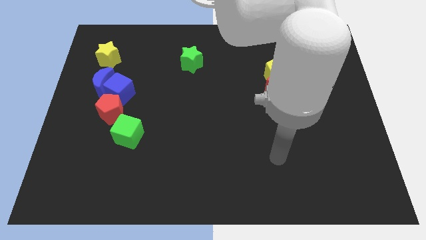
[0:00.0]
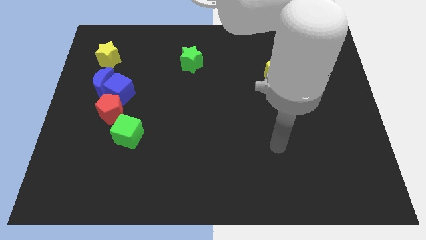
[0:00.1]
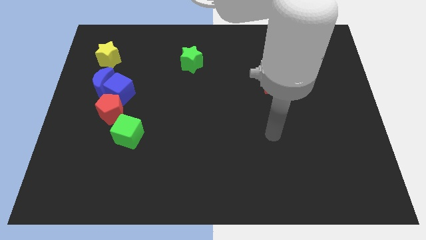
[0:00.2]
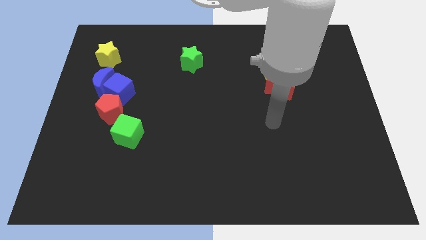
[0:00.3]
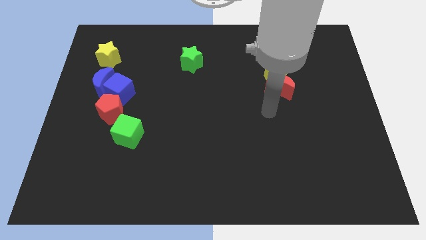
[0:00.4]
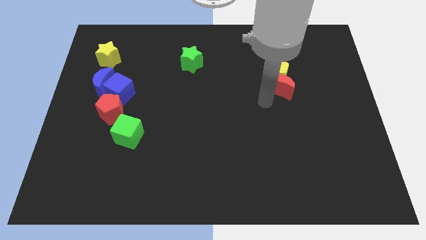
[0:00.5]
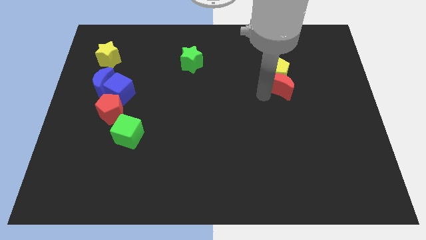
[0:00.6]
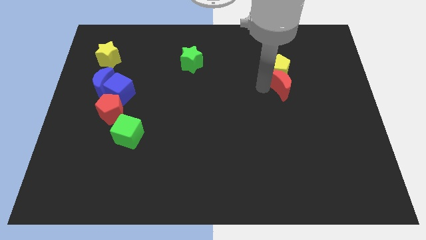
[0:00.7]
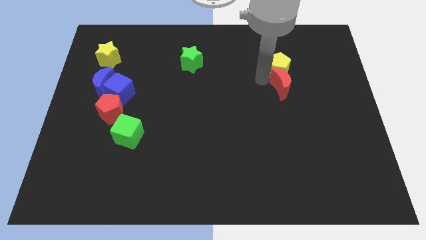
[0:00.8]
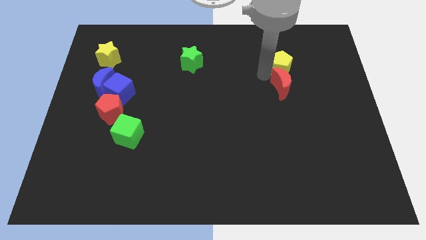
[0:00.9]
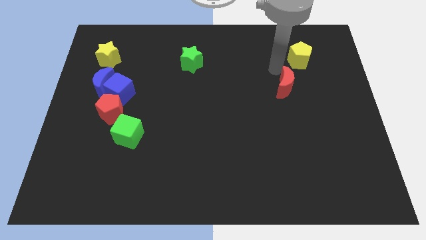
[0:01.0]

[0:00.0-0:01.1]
move the red moon away from the yellow pentagon

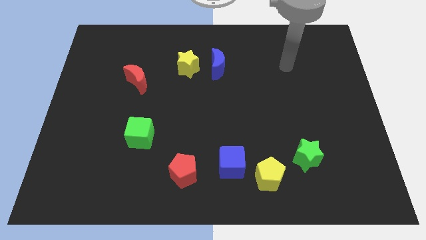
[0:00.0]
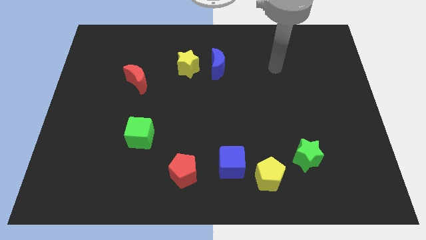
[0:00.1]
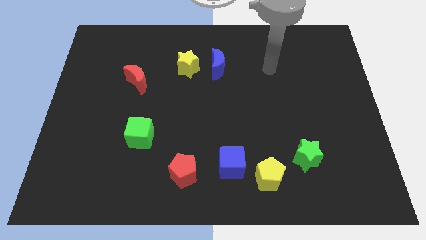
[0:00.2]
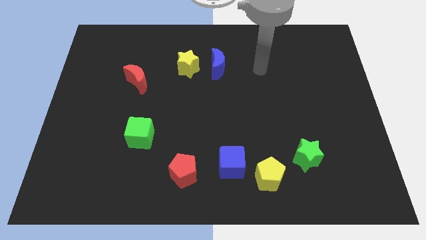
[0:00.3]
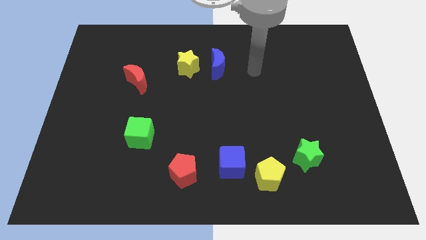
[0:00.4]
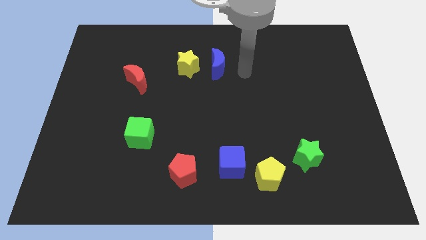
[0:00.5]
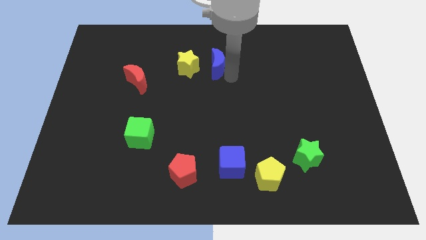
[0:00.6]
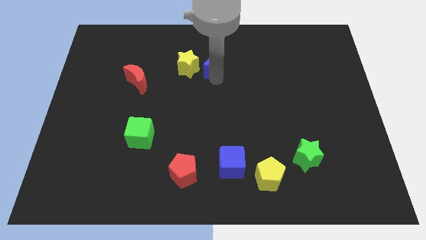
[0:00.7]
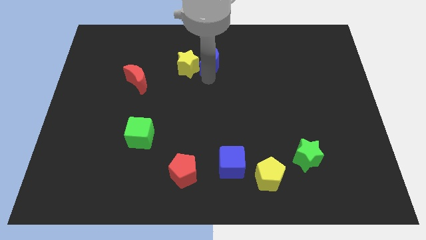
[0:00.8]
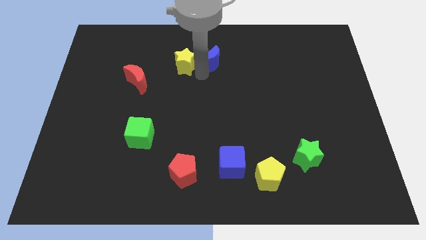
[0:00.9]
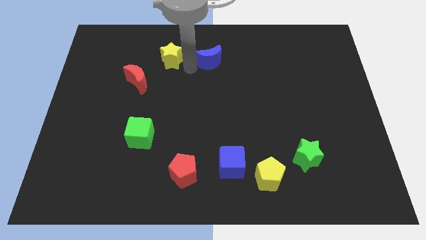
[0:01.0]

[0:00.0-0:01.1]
pull the blue moon apart from the yellow star

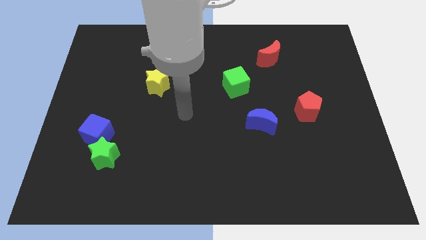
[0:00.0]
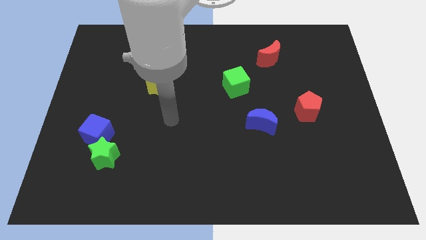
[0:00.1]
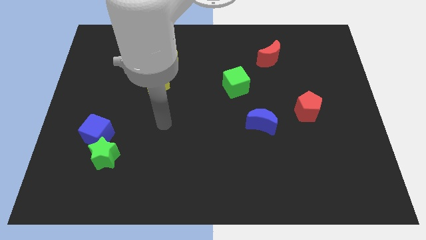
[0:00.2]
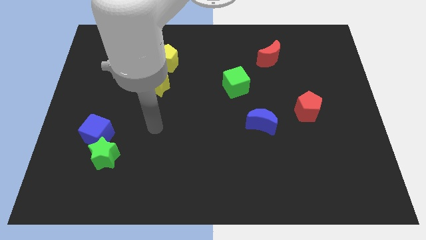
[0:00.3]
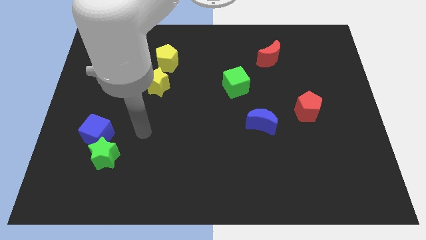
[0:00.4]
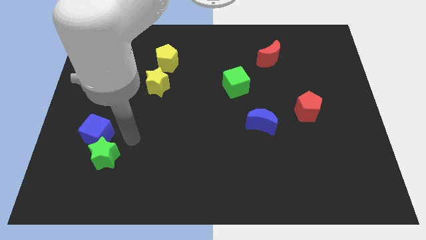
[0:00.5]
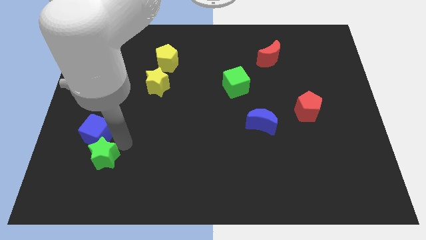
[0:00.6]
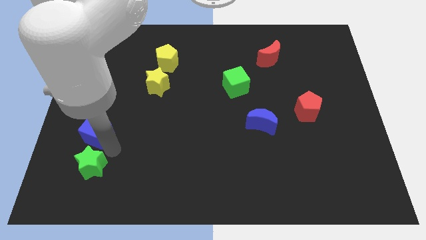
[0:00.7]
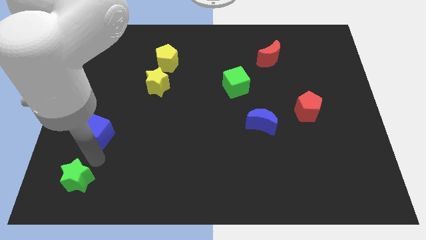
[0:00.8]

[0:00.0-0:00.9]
move the blue cube away from the green star

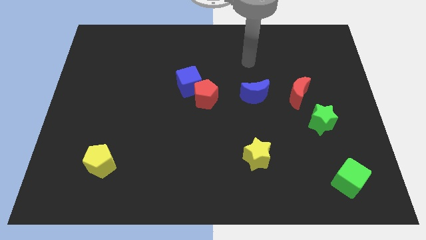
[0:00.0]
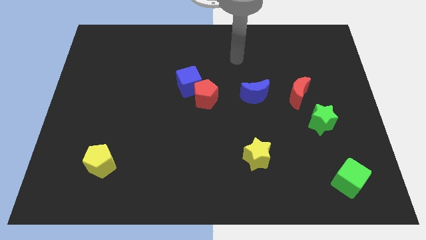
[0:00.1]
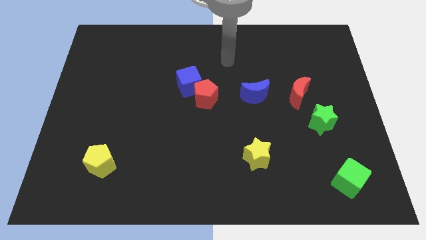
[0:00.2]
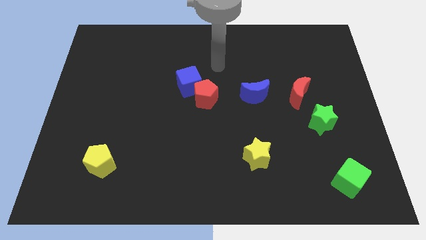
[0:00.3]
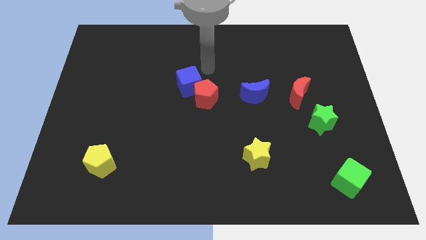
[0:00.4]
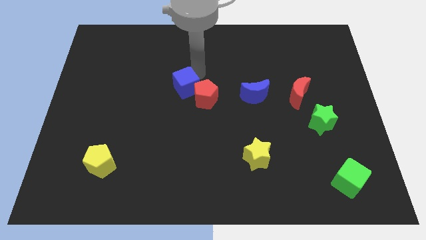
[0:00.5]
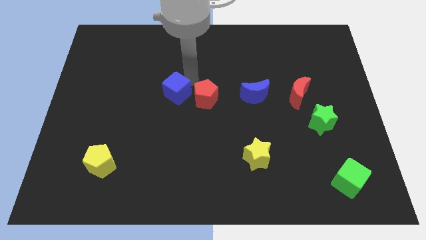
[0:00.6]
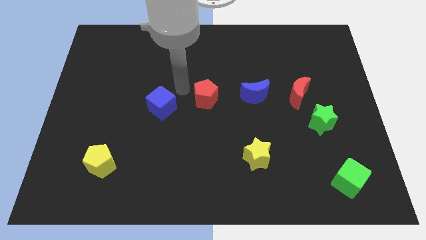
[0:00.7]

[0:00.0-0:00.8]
pull the red pentagon apart from the blue cube

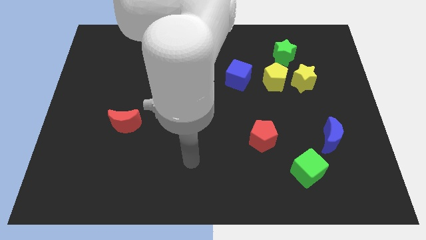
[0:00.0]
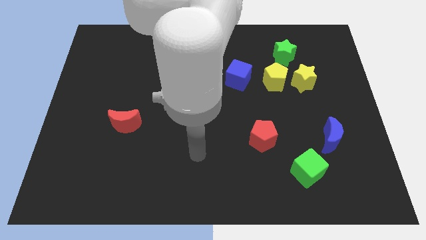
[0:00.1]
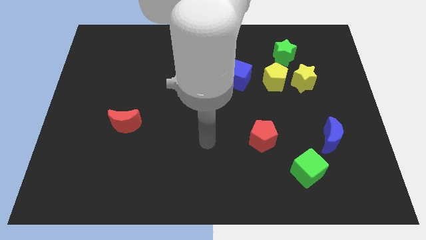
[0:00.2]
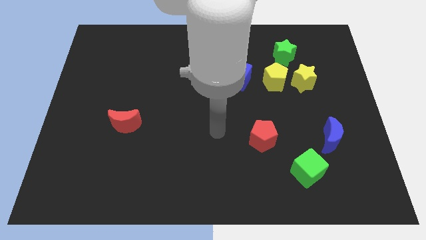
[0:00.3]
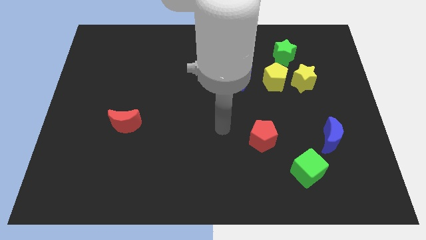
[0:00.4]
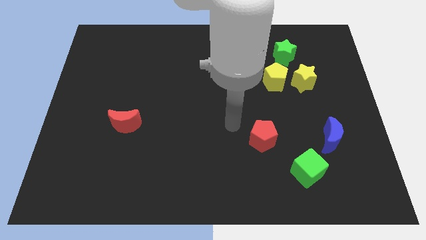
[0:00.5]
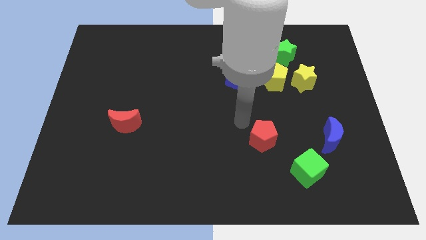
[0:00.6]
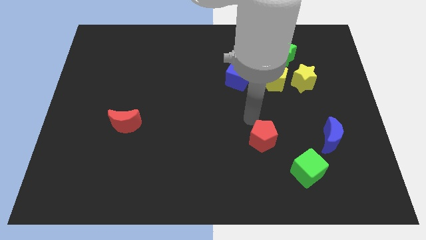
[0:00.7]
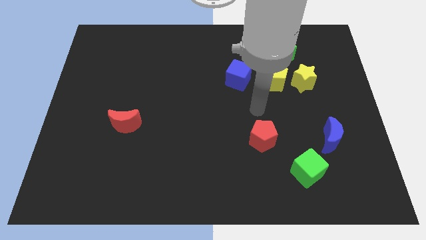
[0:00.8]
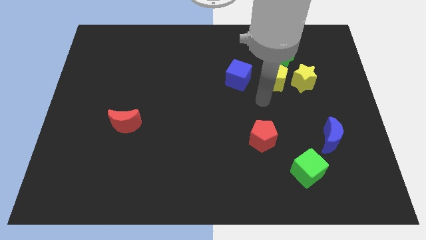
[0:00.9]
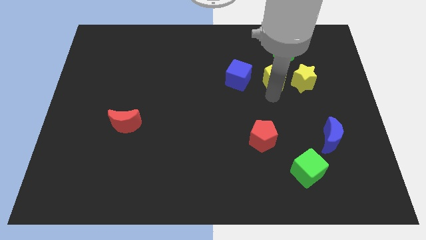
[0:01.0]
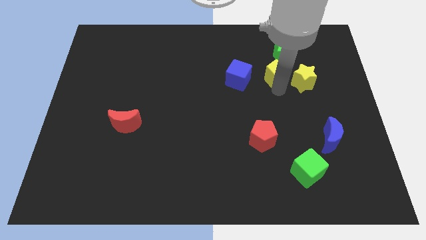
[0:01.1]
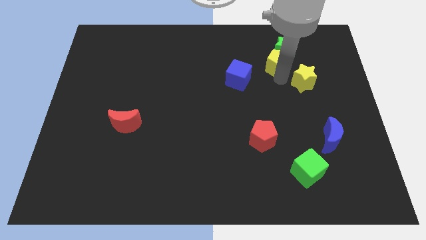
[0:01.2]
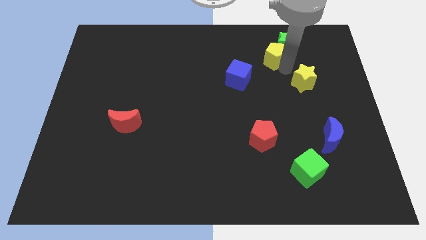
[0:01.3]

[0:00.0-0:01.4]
pull the yellow star apart from the yellow pentagon and green star

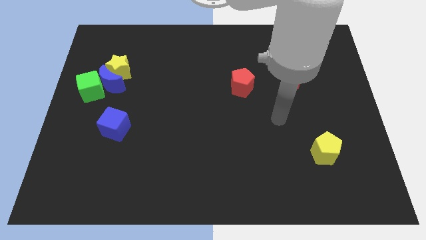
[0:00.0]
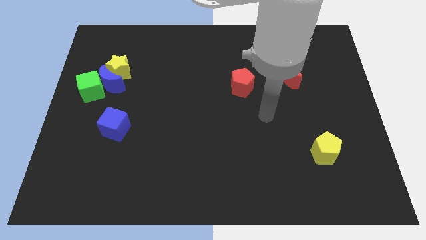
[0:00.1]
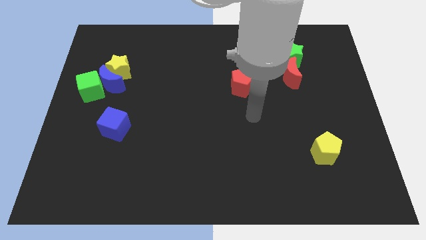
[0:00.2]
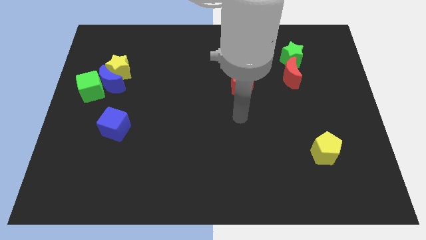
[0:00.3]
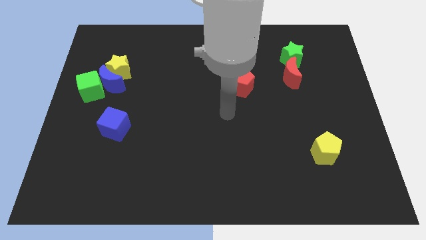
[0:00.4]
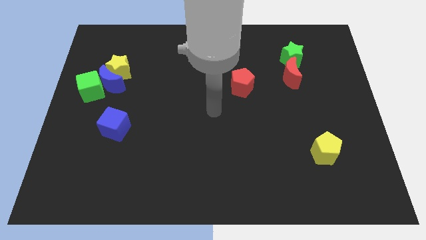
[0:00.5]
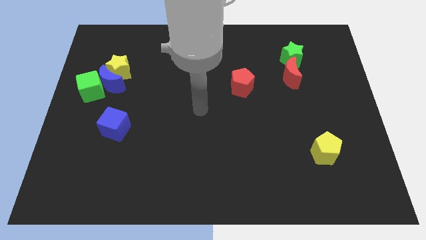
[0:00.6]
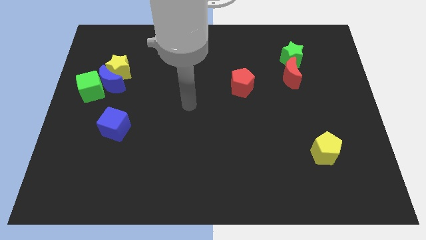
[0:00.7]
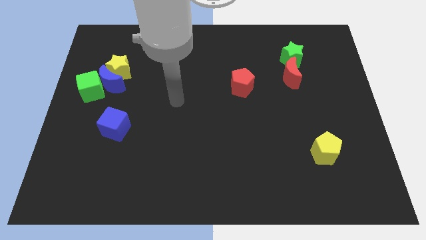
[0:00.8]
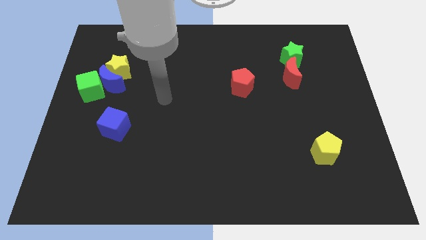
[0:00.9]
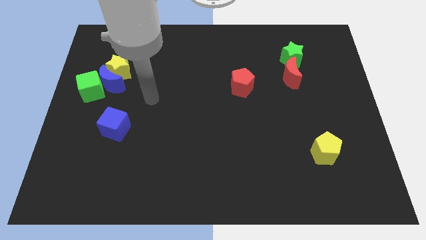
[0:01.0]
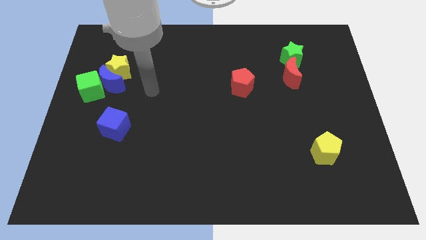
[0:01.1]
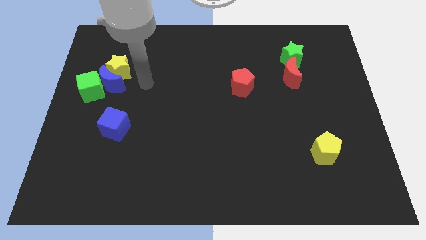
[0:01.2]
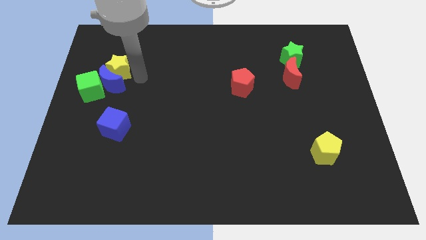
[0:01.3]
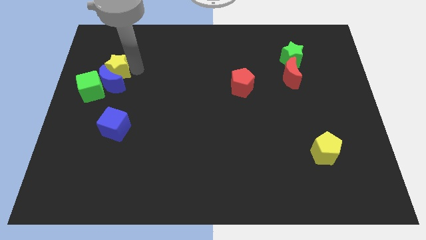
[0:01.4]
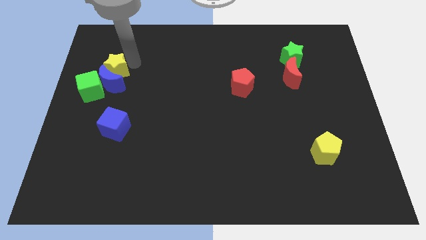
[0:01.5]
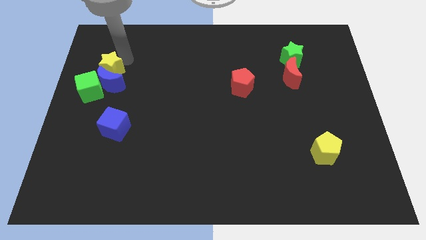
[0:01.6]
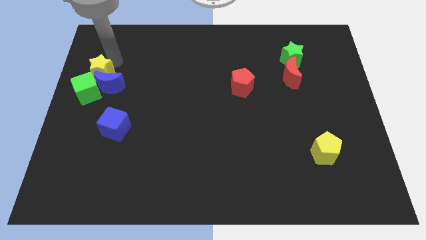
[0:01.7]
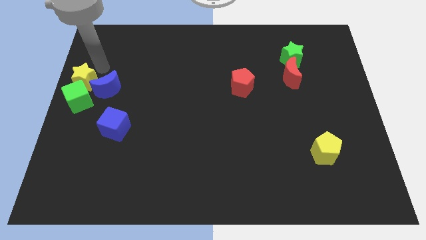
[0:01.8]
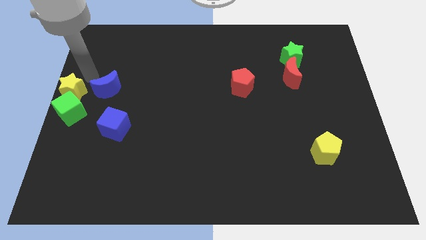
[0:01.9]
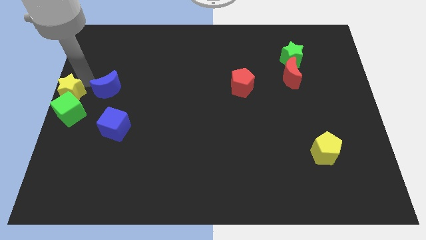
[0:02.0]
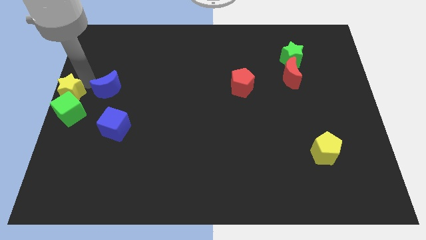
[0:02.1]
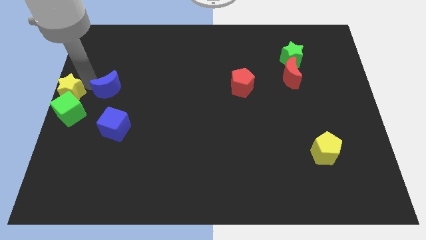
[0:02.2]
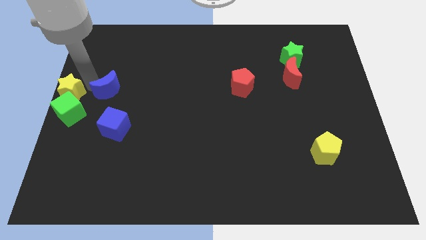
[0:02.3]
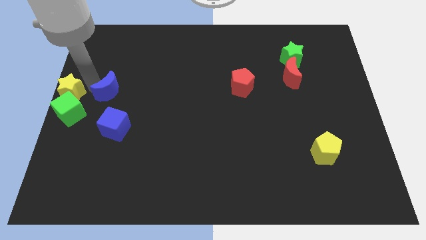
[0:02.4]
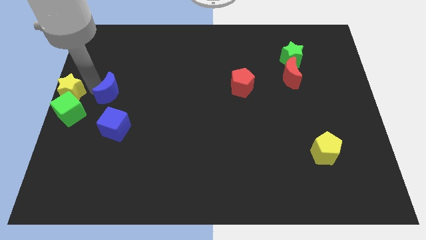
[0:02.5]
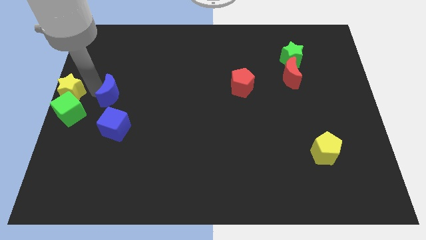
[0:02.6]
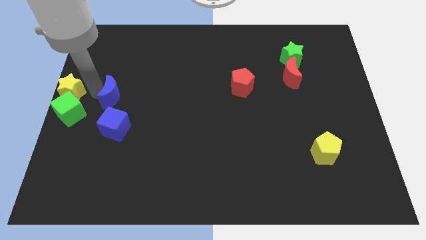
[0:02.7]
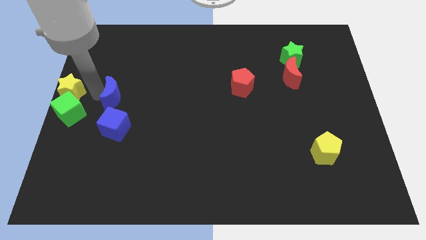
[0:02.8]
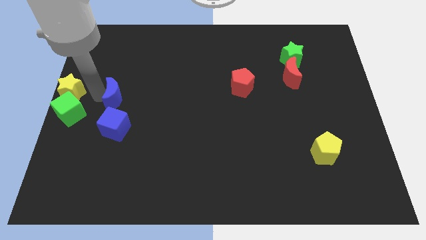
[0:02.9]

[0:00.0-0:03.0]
pull the blue moon apart from the yellow star and green cube

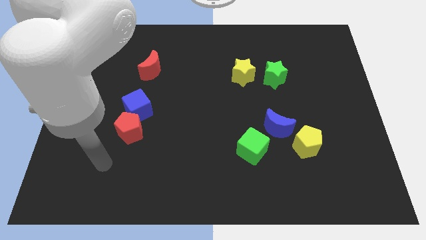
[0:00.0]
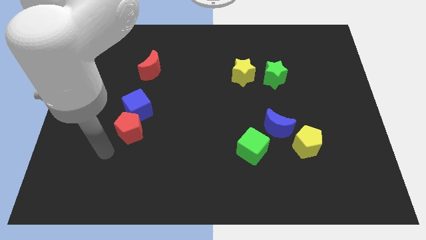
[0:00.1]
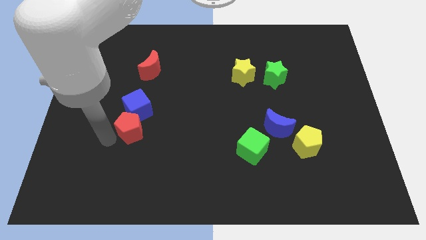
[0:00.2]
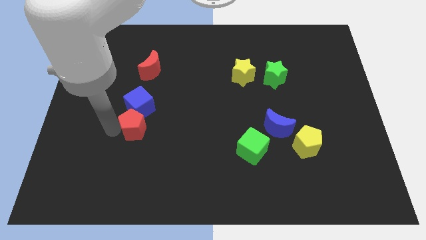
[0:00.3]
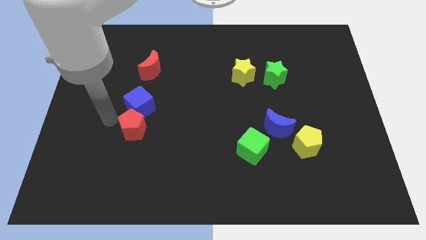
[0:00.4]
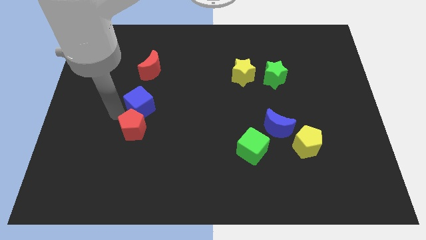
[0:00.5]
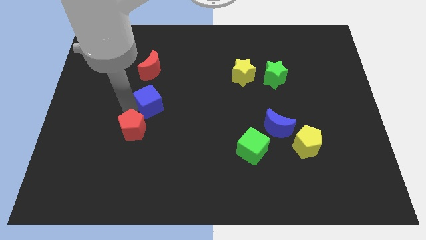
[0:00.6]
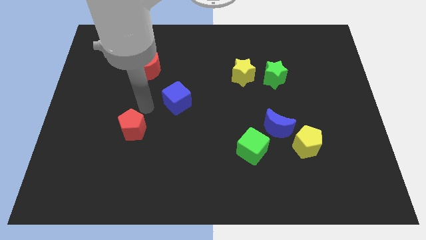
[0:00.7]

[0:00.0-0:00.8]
separate the red pentagon from the blue cube

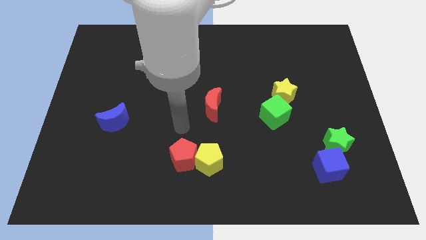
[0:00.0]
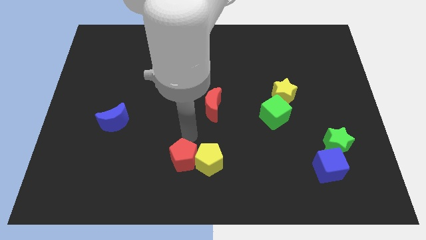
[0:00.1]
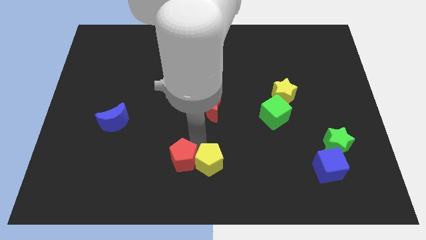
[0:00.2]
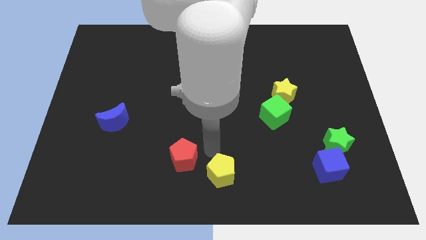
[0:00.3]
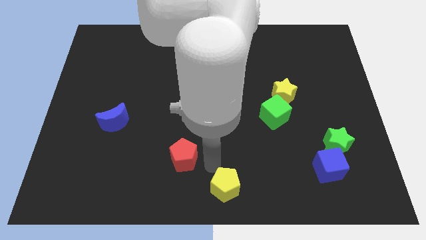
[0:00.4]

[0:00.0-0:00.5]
move the red pentagon away from the yellow pentagon
